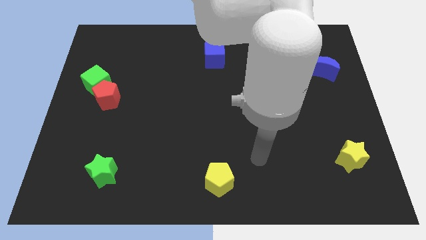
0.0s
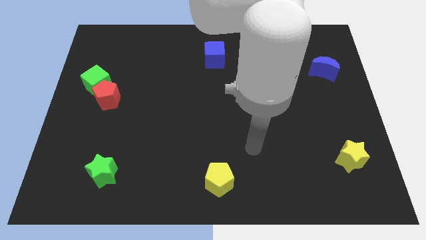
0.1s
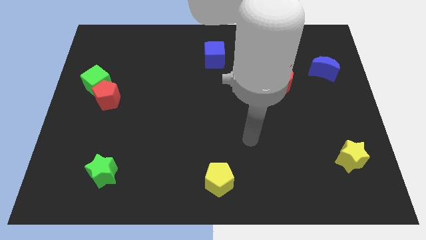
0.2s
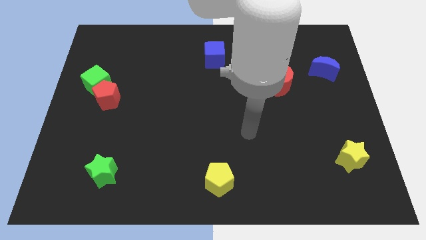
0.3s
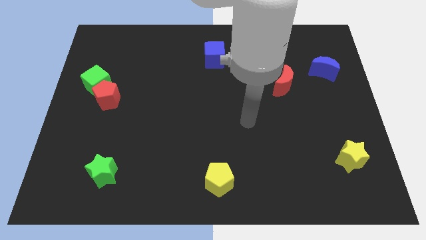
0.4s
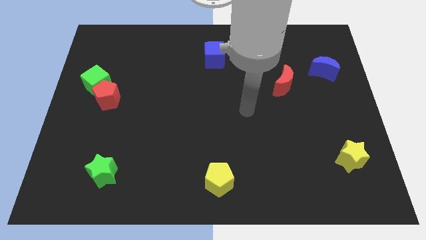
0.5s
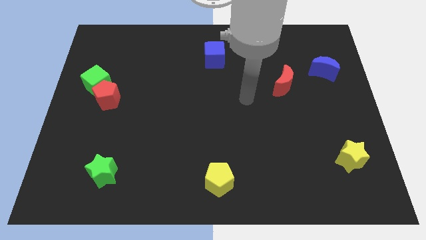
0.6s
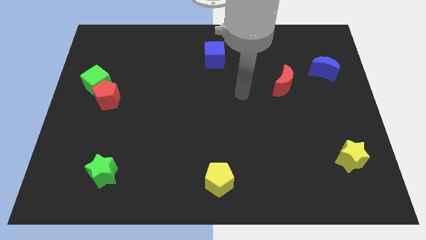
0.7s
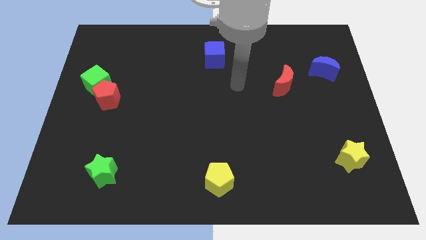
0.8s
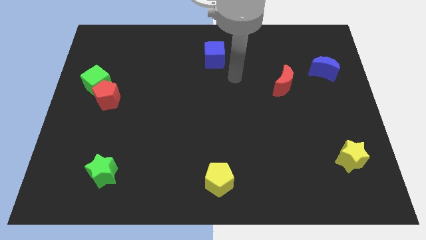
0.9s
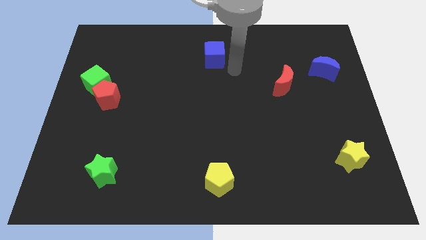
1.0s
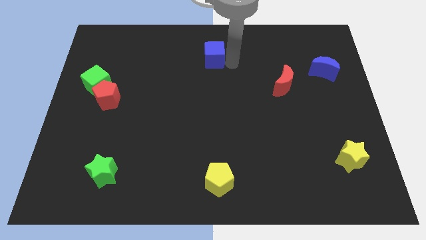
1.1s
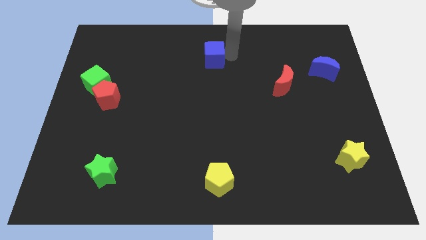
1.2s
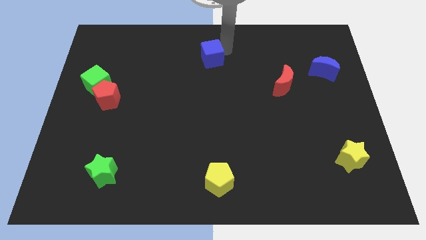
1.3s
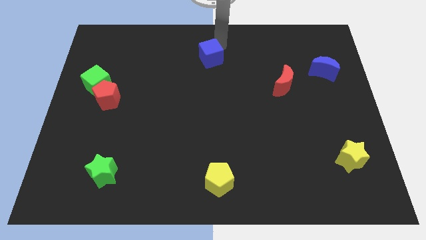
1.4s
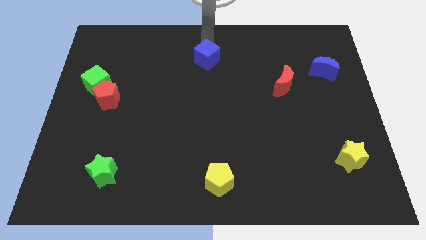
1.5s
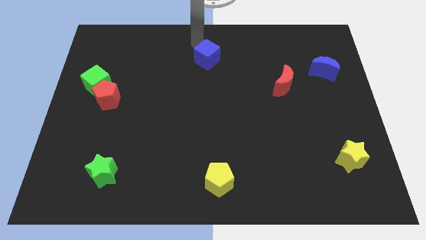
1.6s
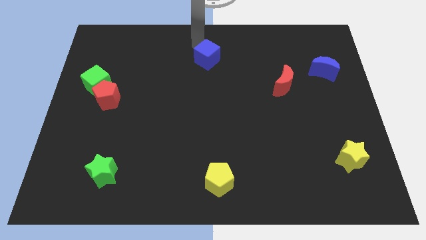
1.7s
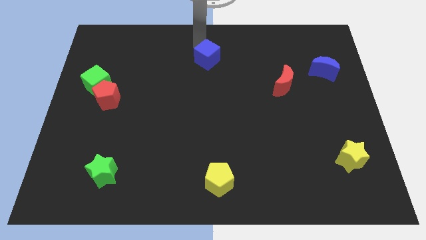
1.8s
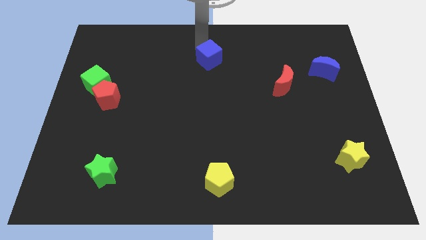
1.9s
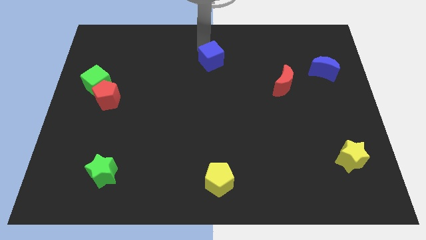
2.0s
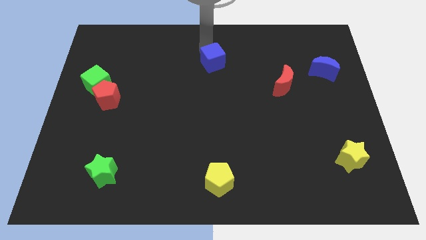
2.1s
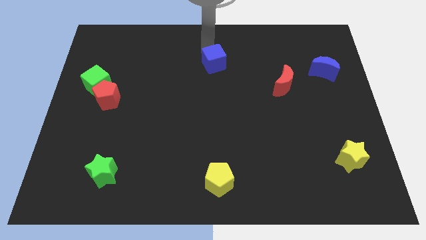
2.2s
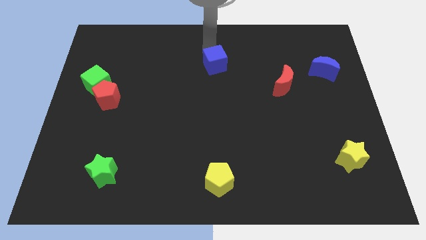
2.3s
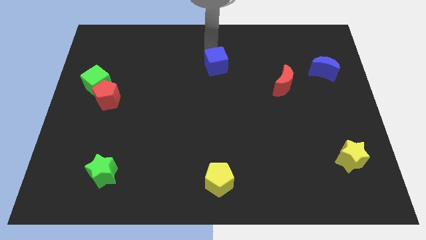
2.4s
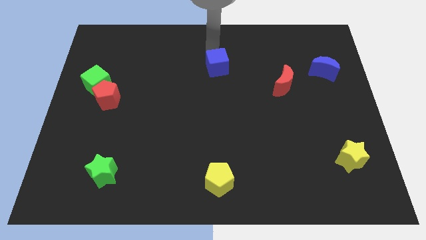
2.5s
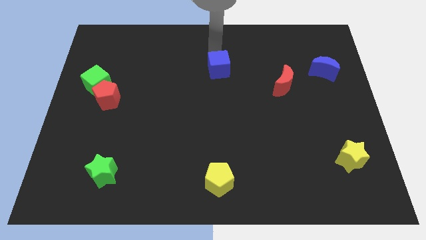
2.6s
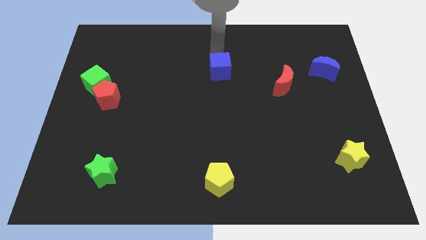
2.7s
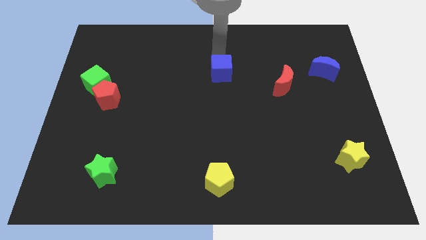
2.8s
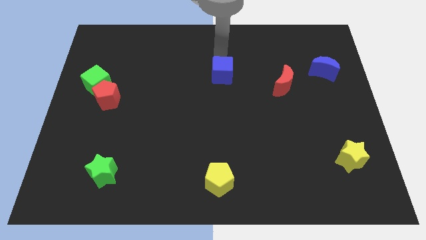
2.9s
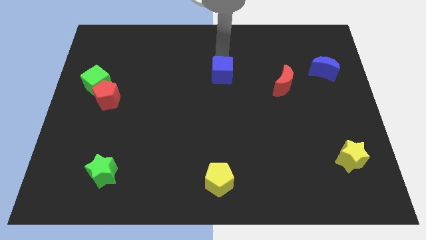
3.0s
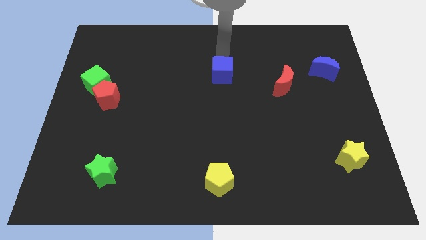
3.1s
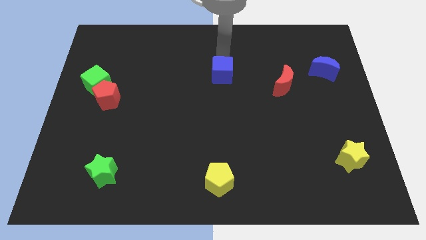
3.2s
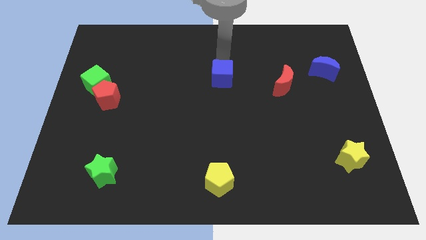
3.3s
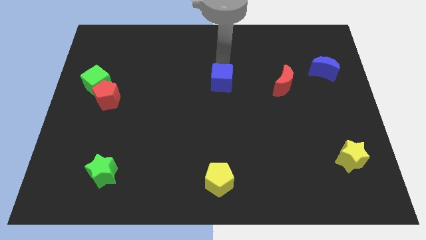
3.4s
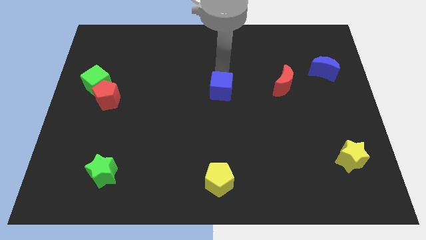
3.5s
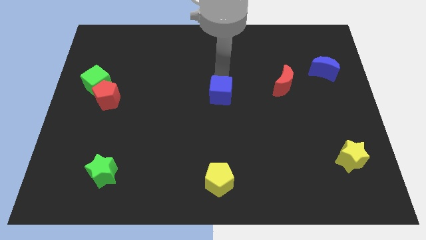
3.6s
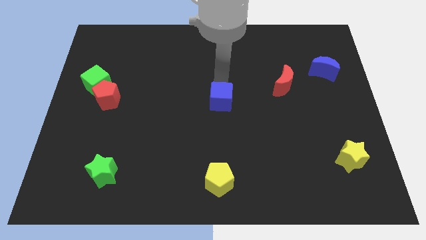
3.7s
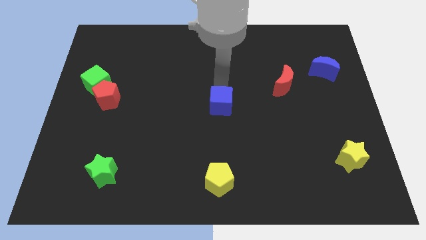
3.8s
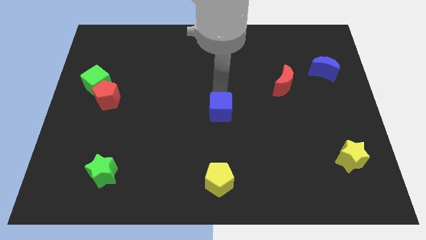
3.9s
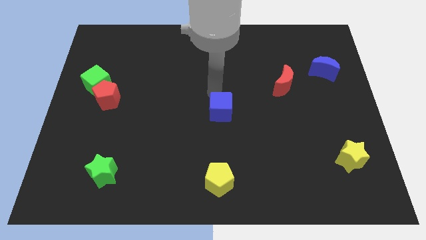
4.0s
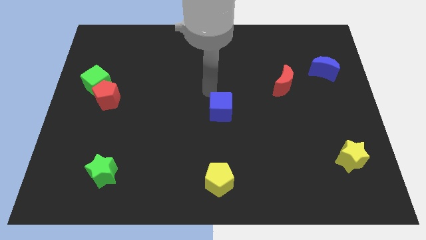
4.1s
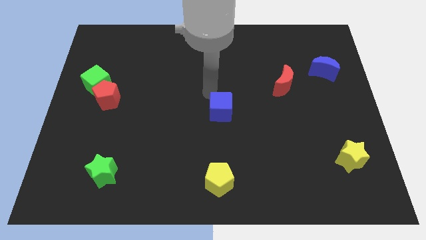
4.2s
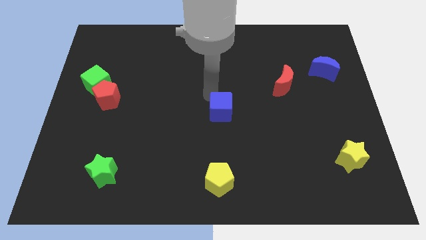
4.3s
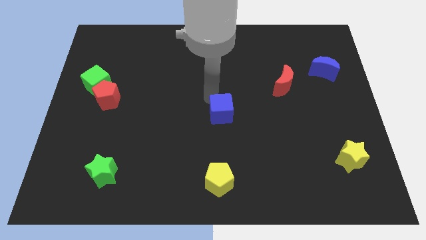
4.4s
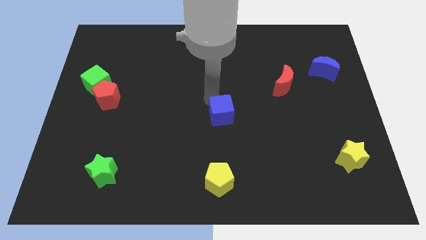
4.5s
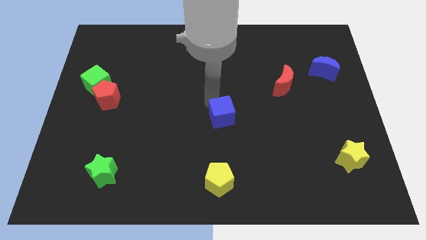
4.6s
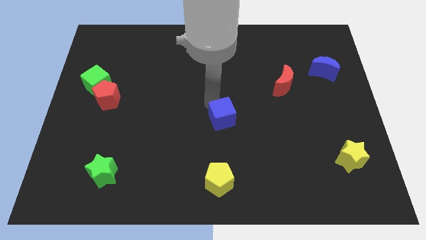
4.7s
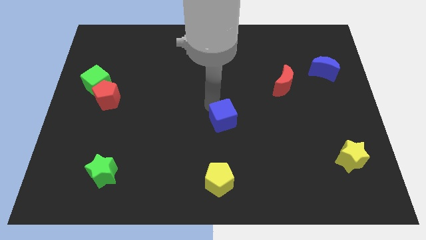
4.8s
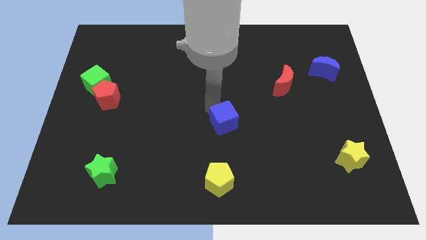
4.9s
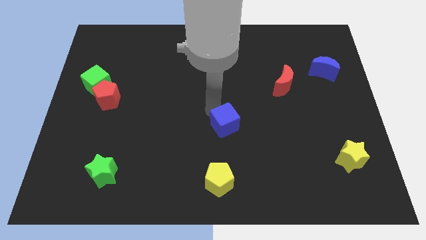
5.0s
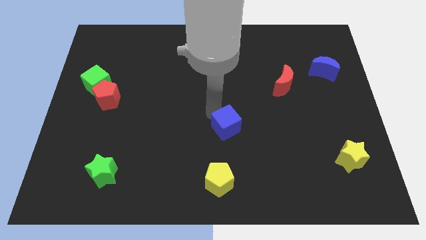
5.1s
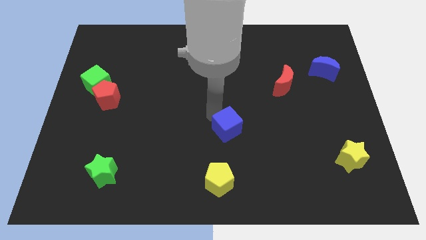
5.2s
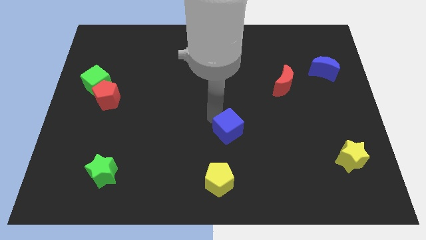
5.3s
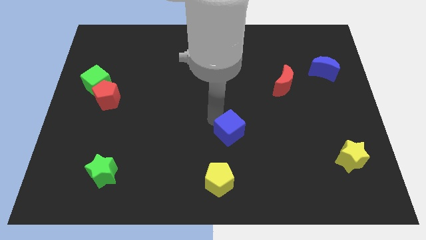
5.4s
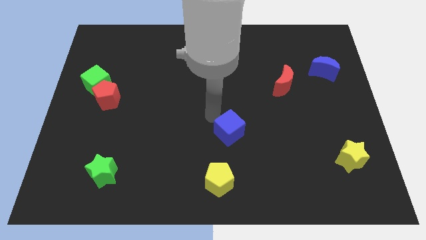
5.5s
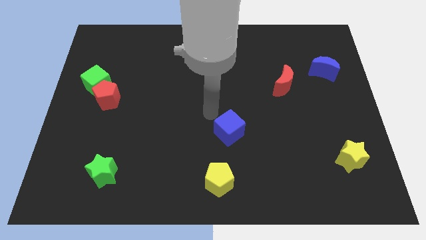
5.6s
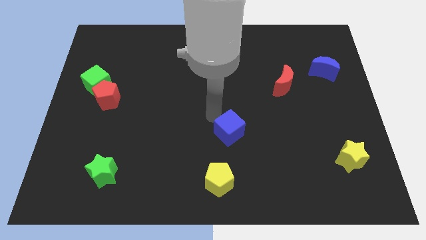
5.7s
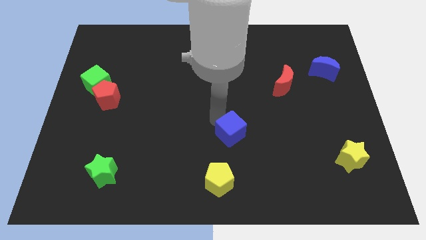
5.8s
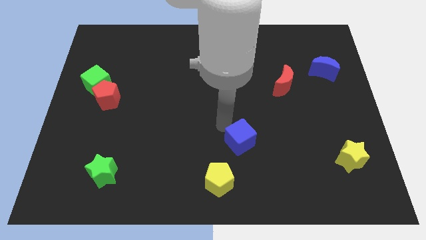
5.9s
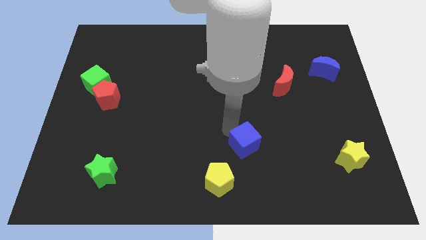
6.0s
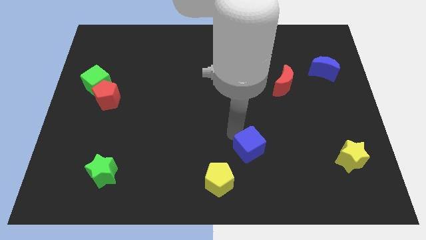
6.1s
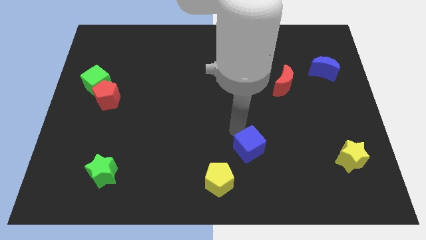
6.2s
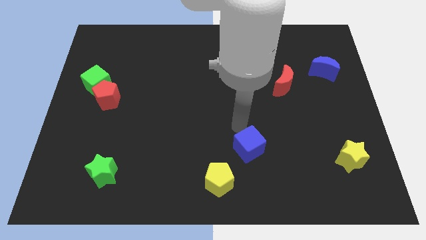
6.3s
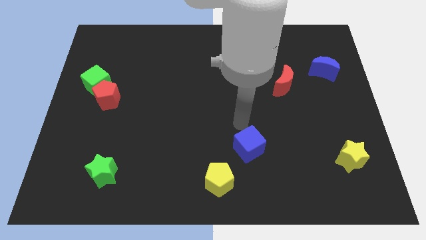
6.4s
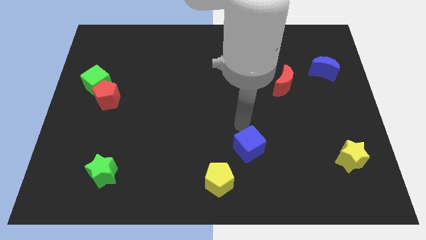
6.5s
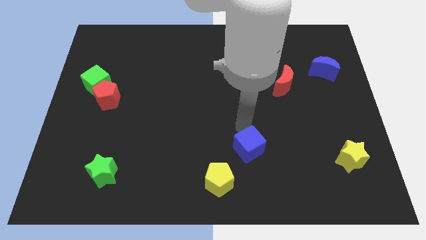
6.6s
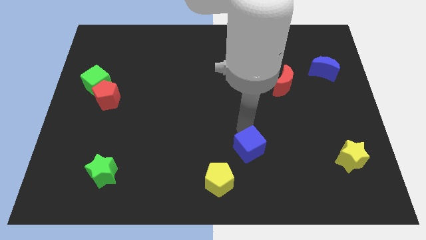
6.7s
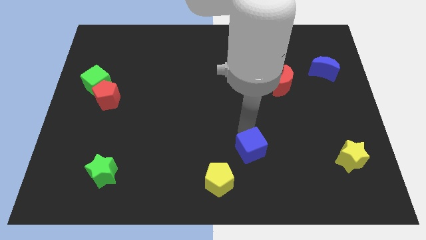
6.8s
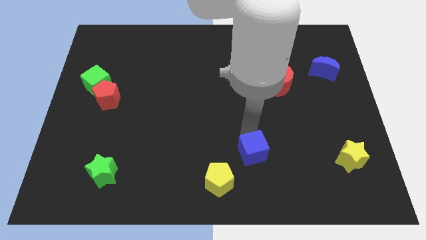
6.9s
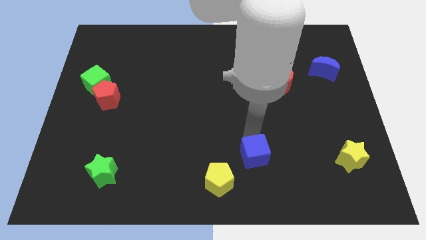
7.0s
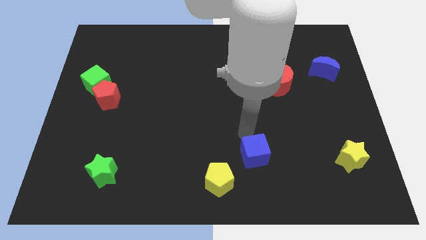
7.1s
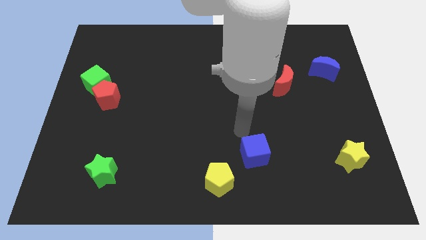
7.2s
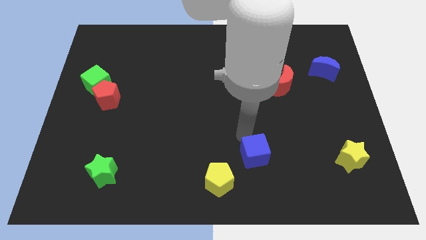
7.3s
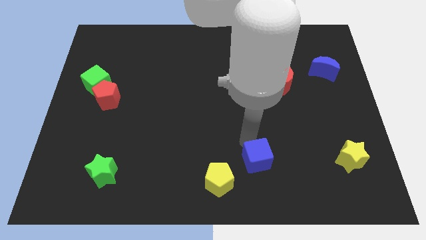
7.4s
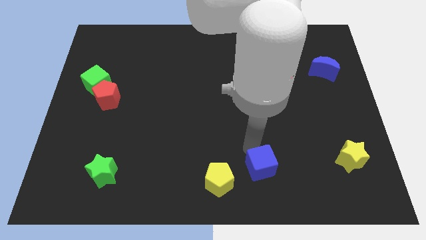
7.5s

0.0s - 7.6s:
put the blue cube right of the yellow pentagon
